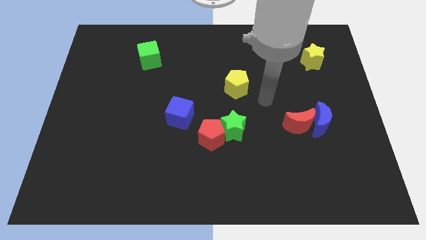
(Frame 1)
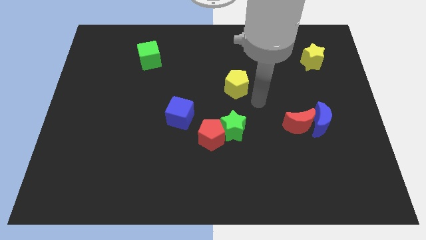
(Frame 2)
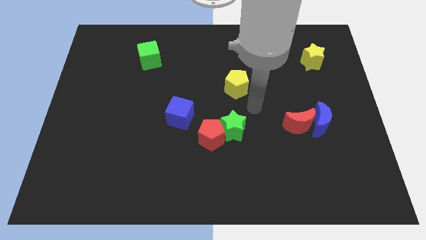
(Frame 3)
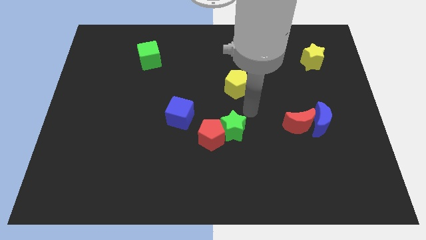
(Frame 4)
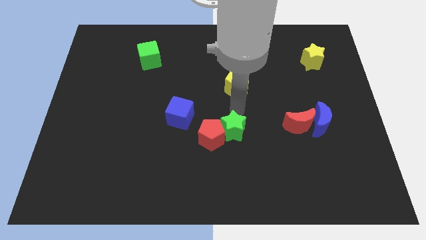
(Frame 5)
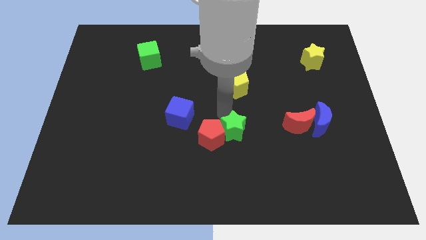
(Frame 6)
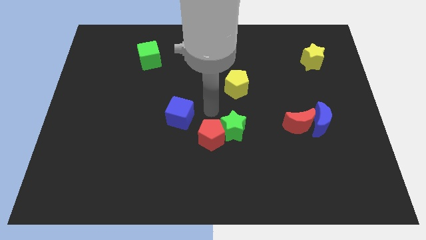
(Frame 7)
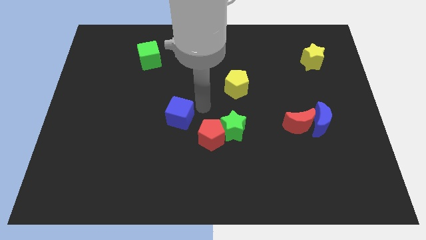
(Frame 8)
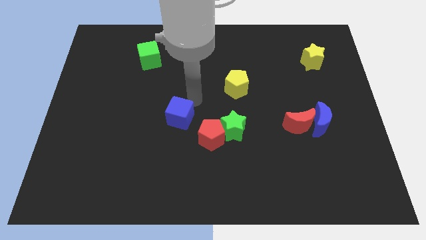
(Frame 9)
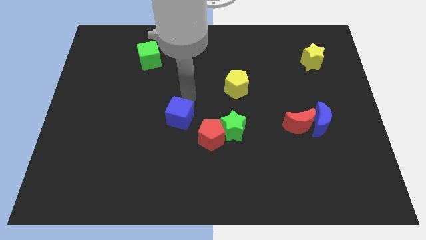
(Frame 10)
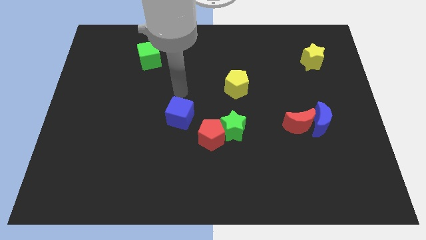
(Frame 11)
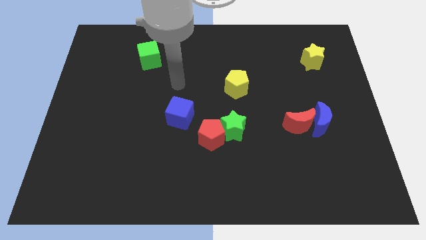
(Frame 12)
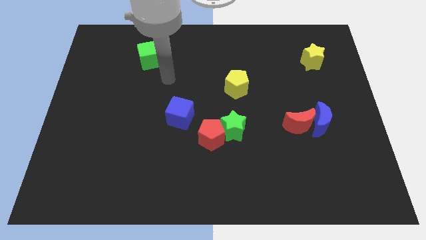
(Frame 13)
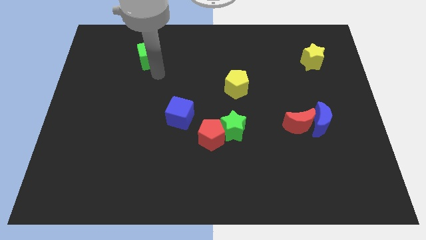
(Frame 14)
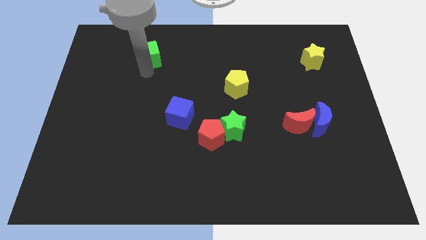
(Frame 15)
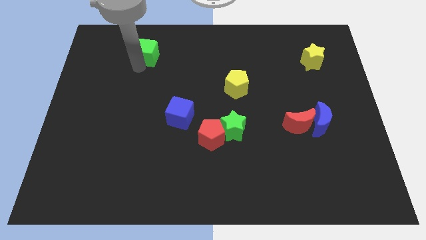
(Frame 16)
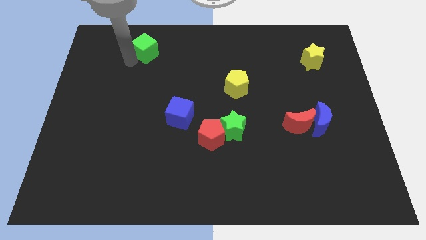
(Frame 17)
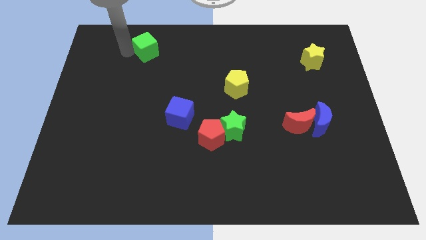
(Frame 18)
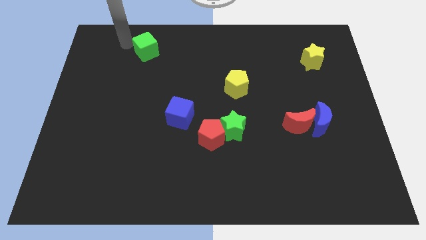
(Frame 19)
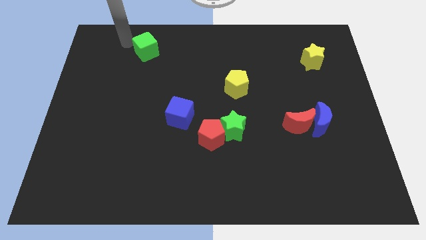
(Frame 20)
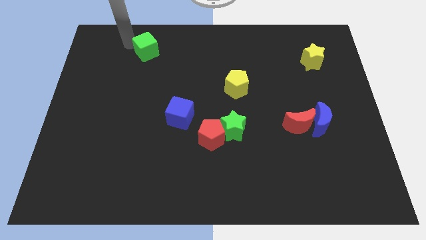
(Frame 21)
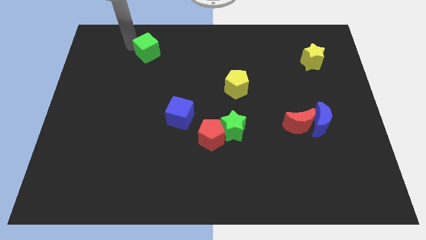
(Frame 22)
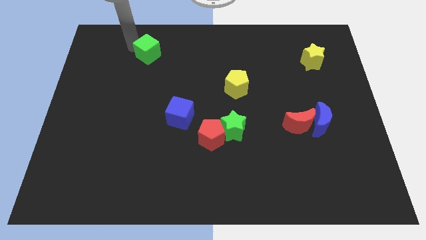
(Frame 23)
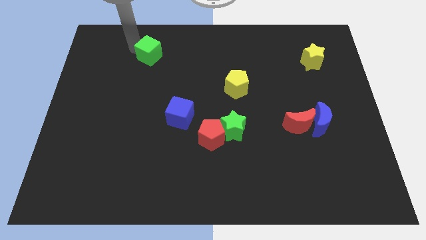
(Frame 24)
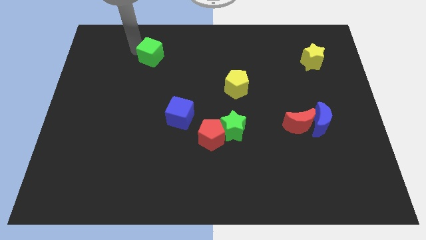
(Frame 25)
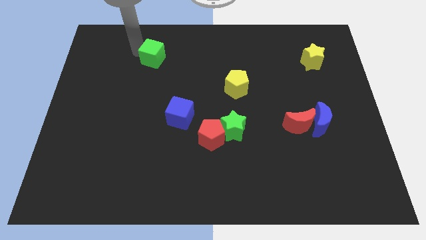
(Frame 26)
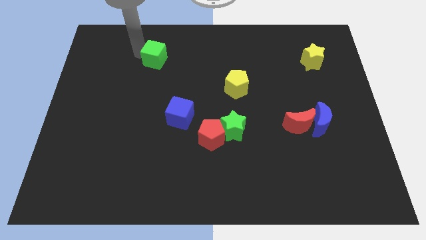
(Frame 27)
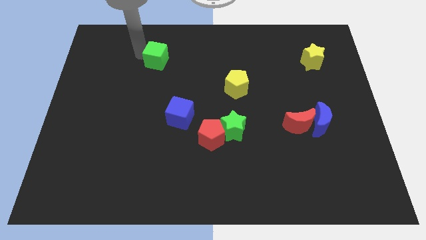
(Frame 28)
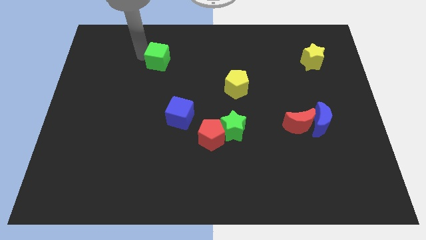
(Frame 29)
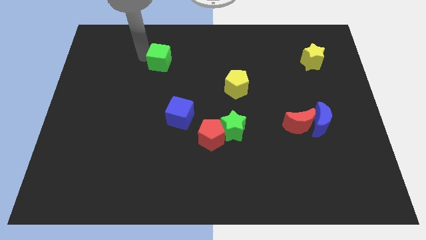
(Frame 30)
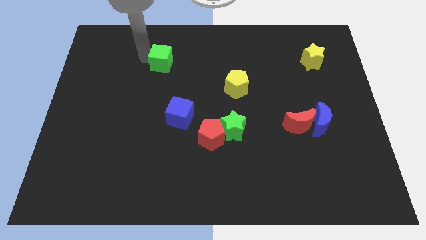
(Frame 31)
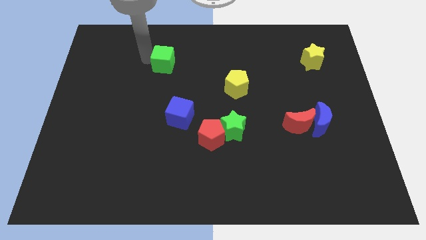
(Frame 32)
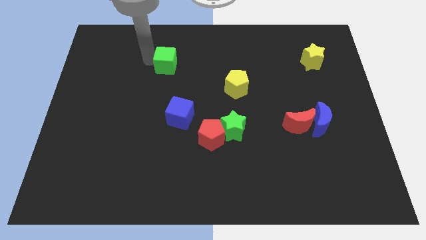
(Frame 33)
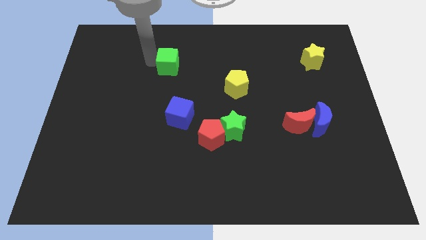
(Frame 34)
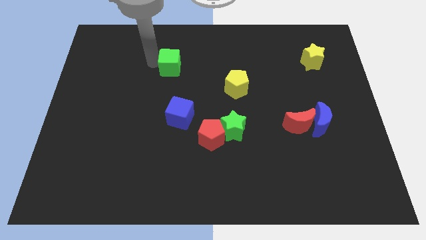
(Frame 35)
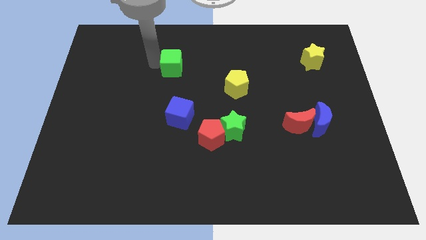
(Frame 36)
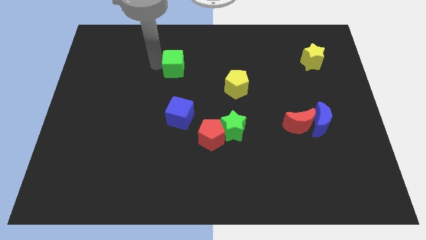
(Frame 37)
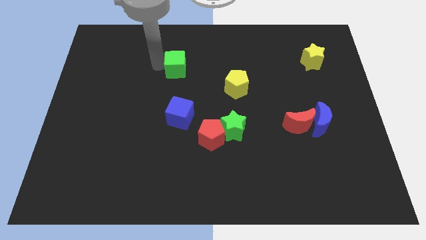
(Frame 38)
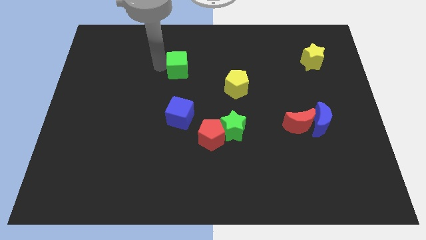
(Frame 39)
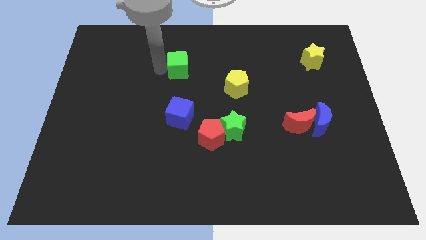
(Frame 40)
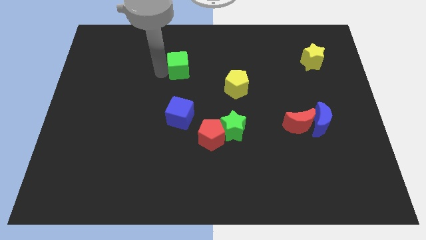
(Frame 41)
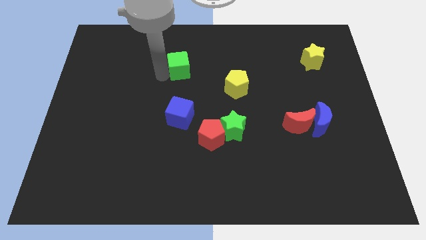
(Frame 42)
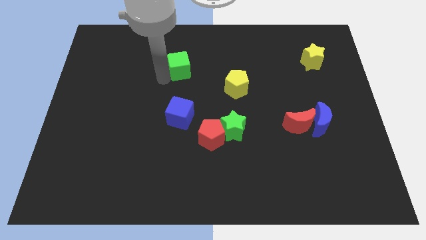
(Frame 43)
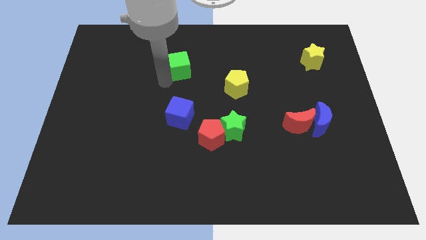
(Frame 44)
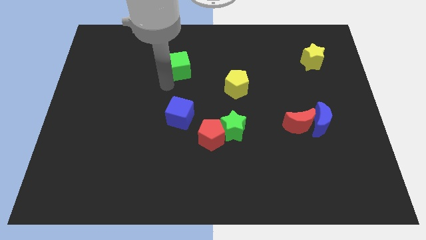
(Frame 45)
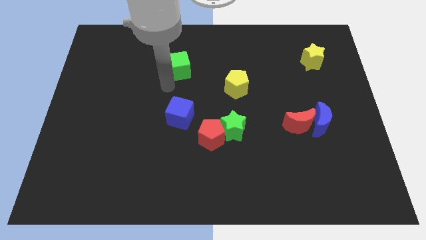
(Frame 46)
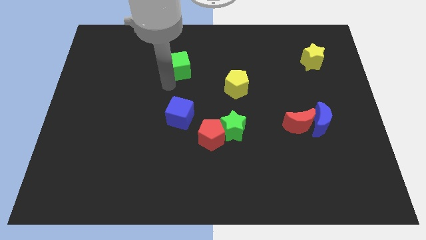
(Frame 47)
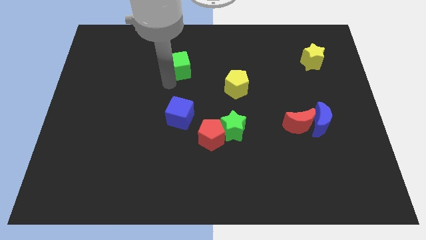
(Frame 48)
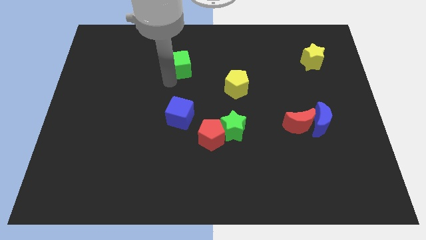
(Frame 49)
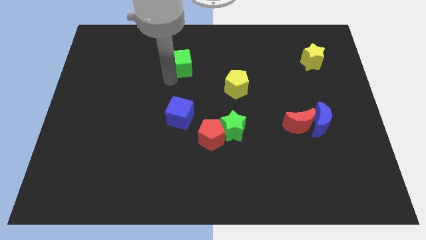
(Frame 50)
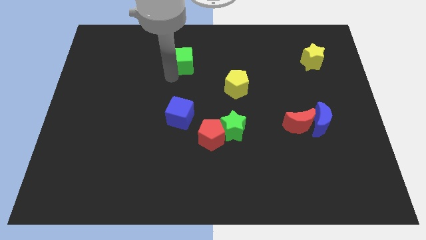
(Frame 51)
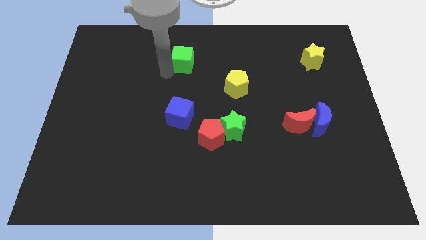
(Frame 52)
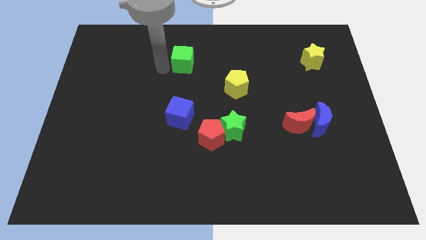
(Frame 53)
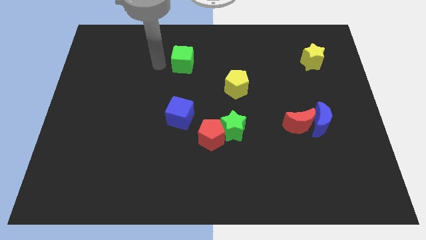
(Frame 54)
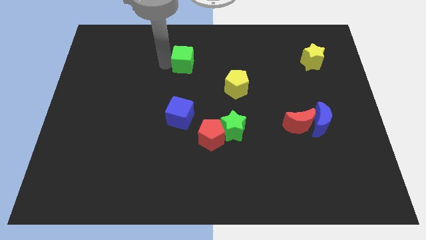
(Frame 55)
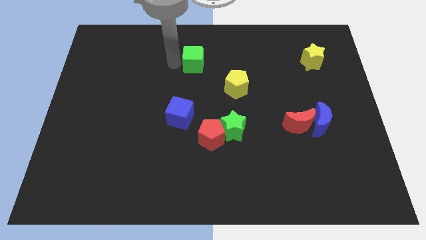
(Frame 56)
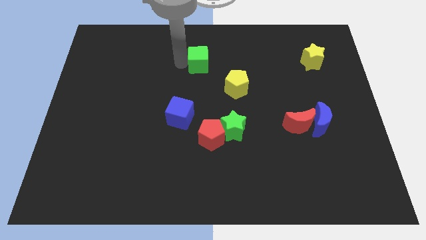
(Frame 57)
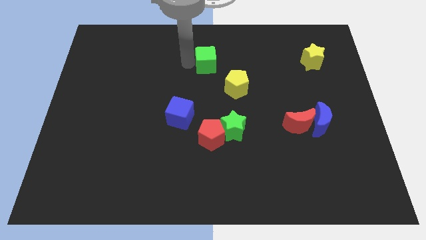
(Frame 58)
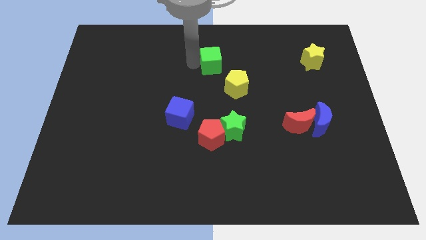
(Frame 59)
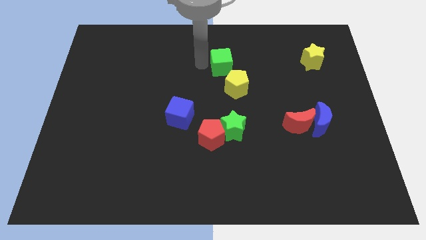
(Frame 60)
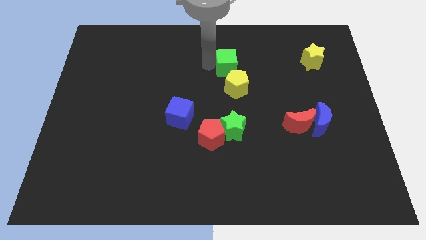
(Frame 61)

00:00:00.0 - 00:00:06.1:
push the green cube to the right

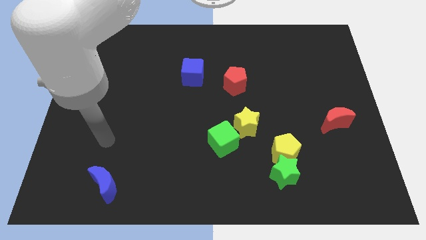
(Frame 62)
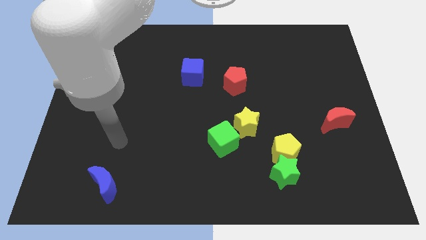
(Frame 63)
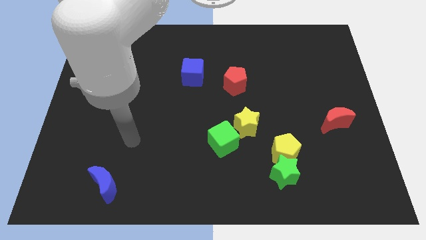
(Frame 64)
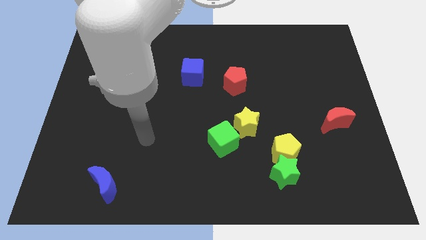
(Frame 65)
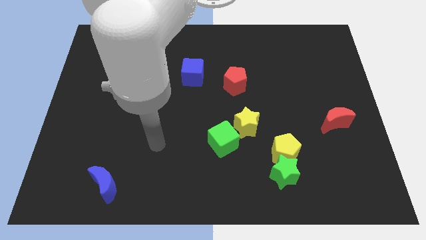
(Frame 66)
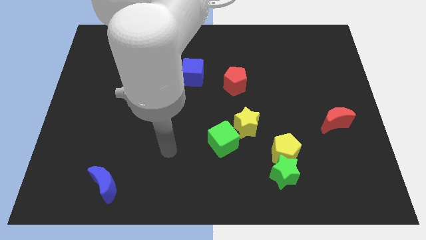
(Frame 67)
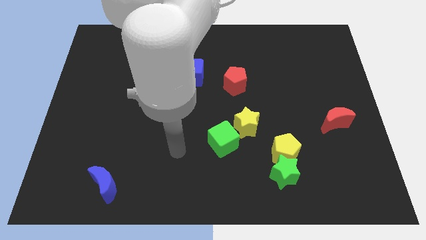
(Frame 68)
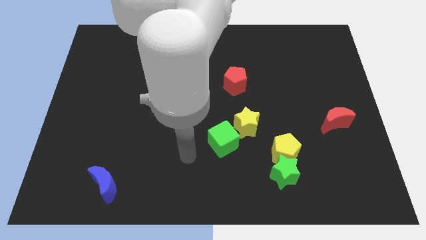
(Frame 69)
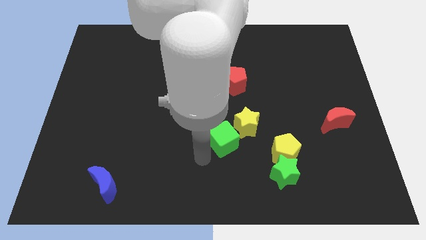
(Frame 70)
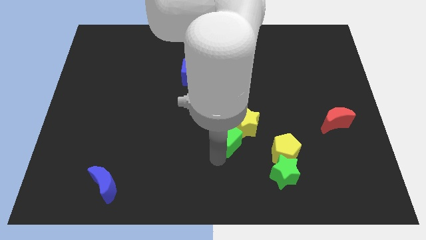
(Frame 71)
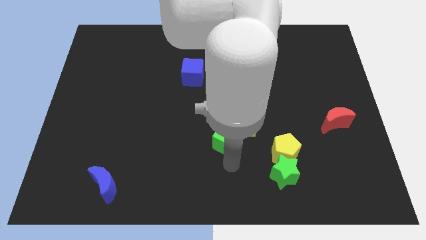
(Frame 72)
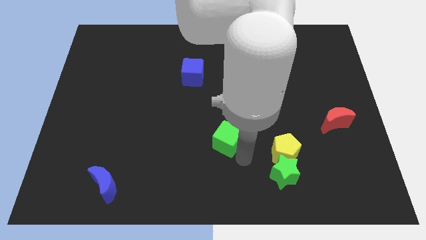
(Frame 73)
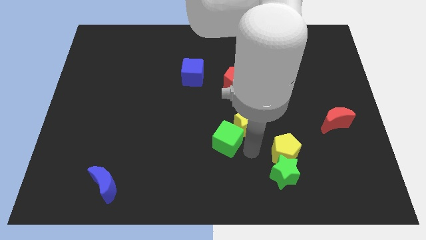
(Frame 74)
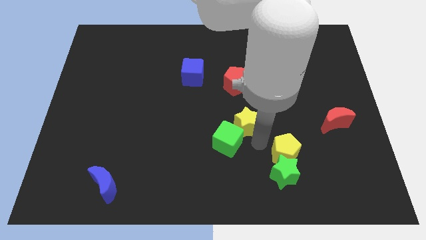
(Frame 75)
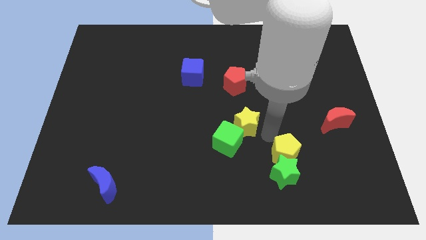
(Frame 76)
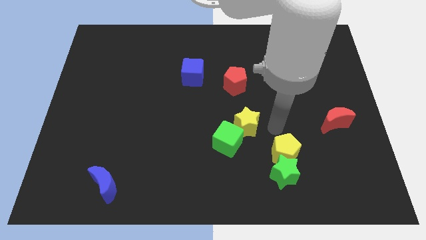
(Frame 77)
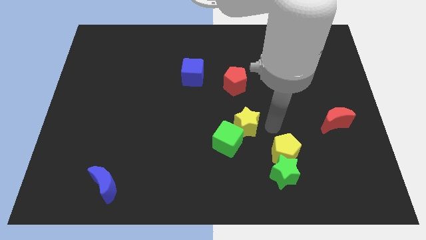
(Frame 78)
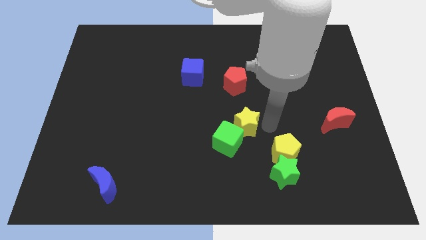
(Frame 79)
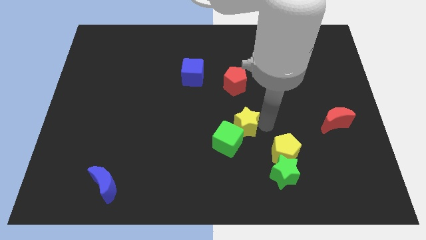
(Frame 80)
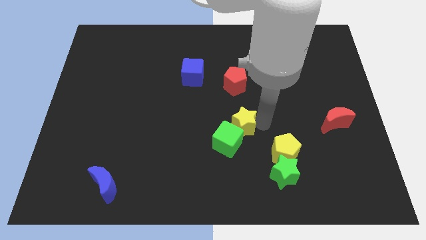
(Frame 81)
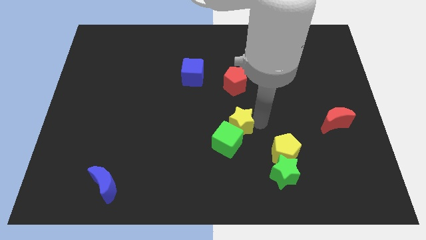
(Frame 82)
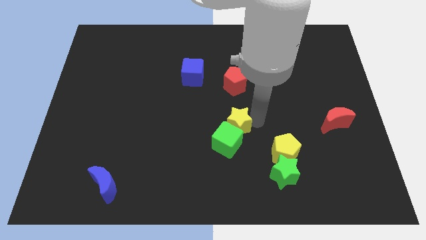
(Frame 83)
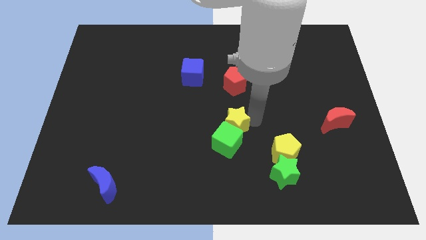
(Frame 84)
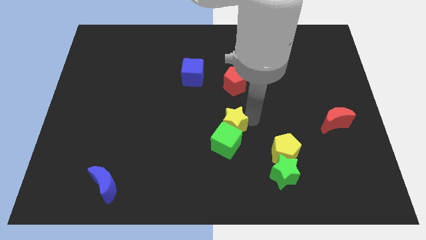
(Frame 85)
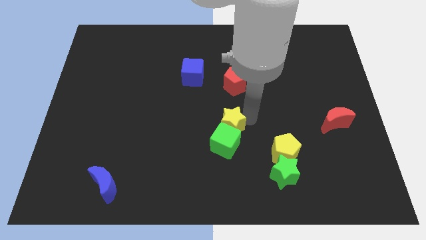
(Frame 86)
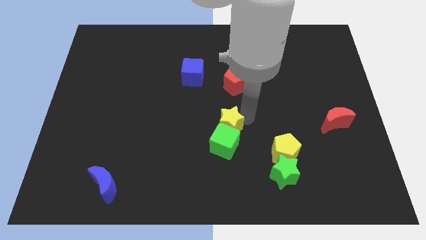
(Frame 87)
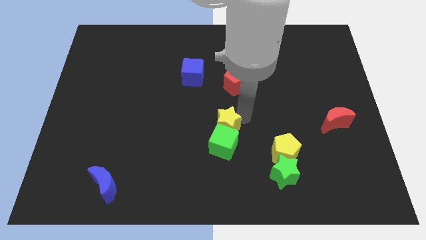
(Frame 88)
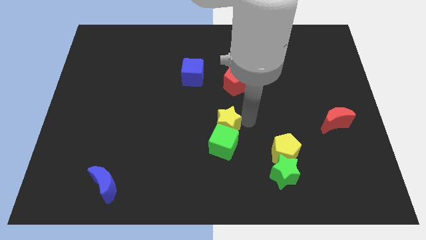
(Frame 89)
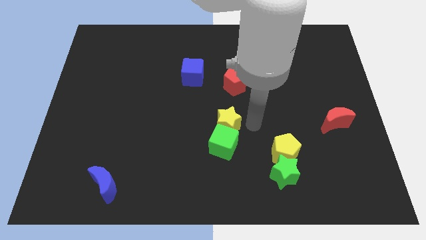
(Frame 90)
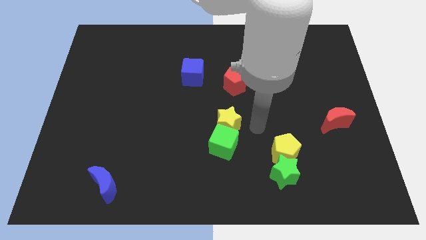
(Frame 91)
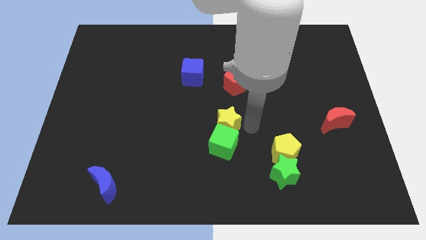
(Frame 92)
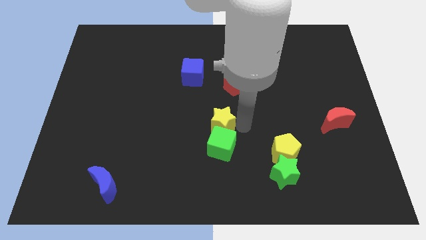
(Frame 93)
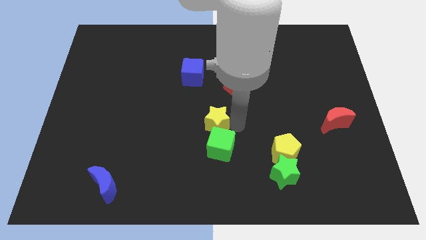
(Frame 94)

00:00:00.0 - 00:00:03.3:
push the yellow star a little bit to the left
